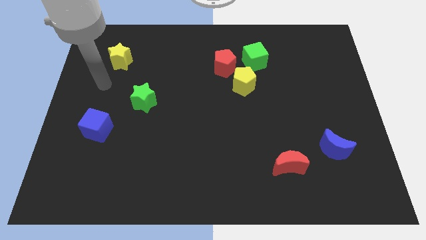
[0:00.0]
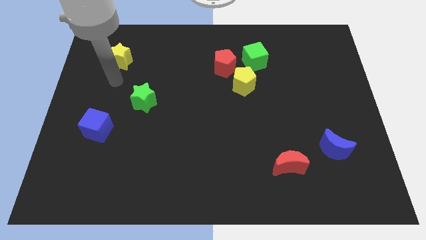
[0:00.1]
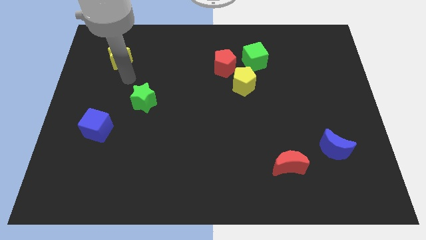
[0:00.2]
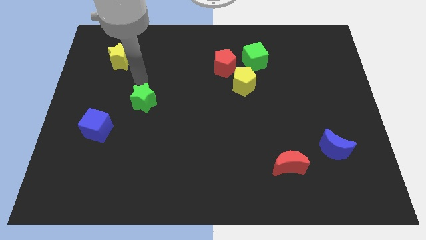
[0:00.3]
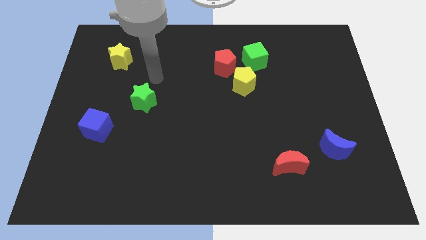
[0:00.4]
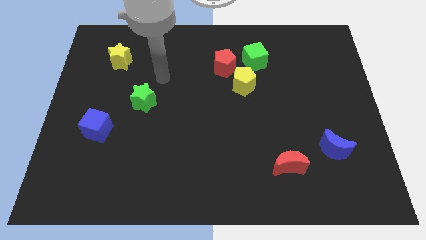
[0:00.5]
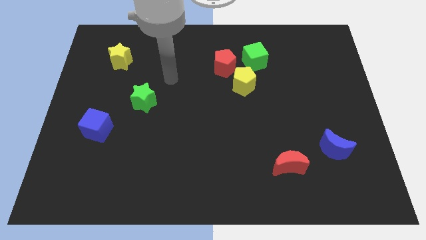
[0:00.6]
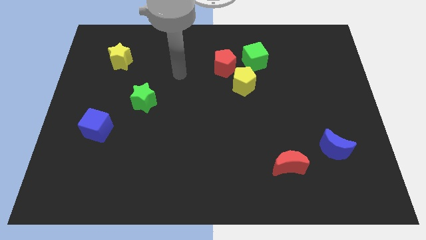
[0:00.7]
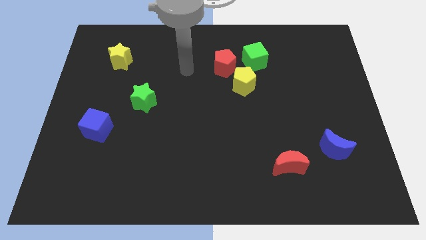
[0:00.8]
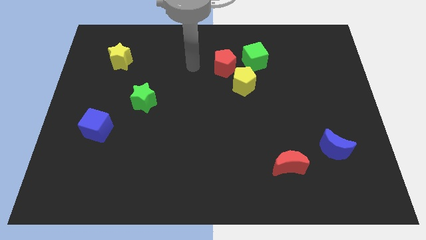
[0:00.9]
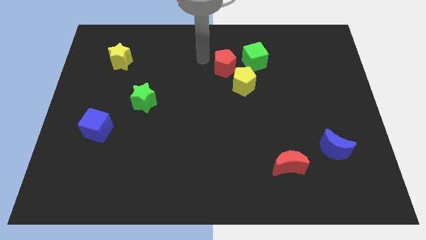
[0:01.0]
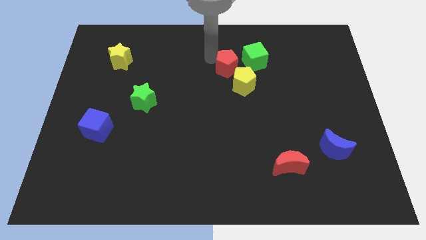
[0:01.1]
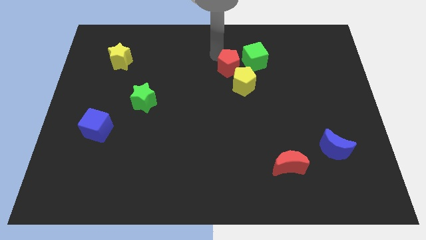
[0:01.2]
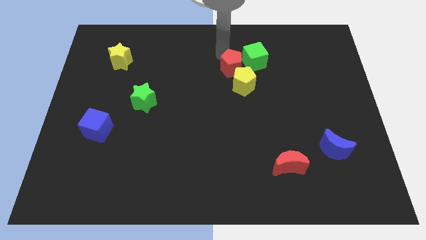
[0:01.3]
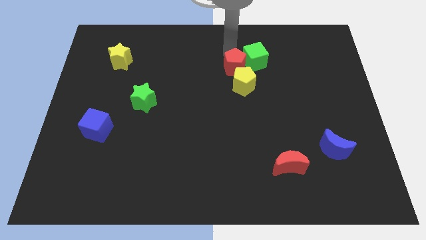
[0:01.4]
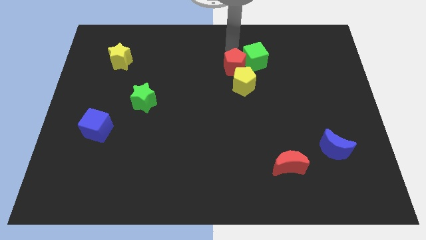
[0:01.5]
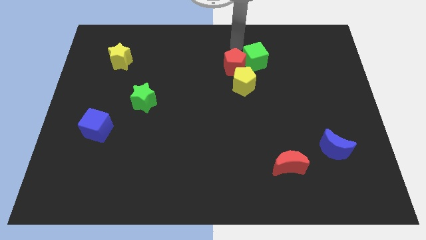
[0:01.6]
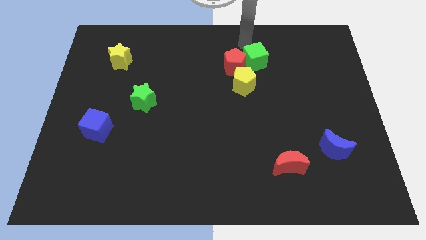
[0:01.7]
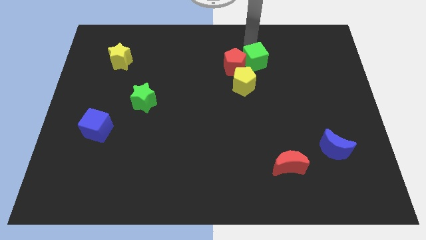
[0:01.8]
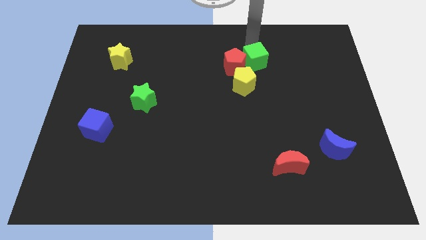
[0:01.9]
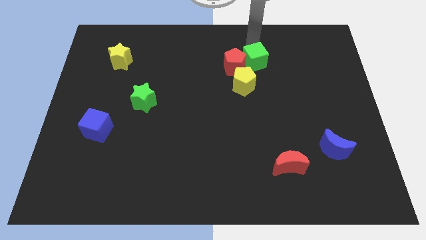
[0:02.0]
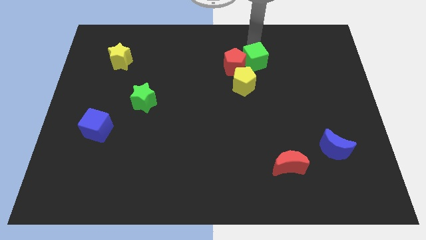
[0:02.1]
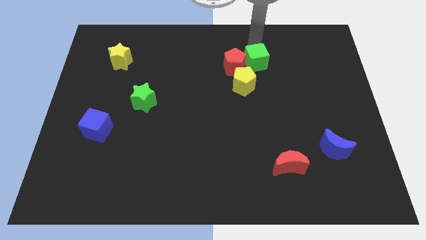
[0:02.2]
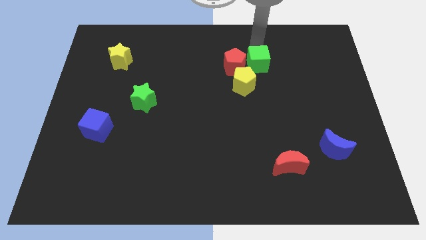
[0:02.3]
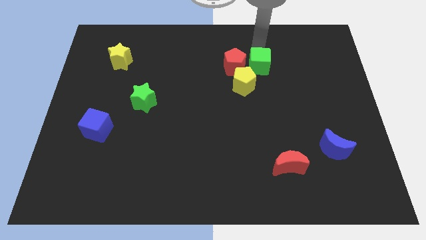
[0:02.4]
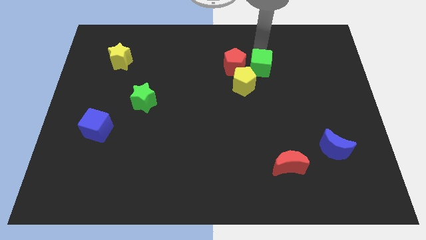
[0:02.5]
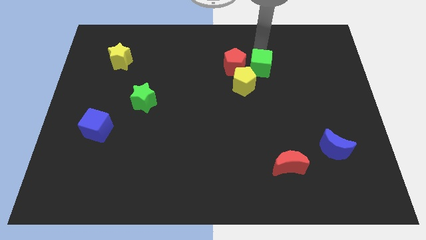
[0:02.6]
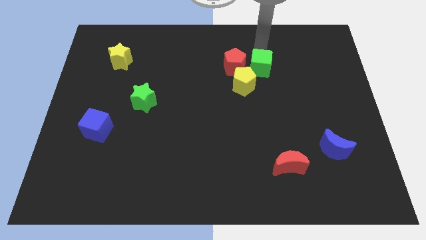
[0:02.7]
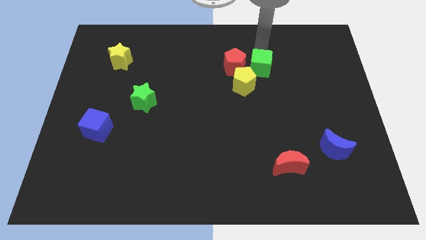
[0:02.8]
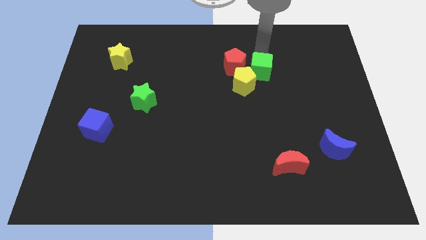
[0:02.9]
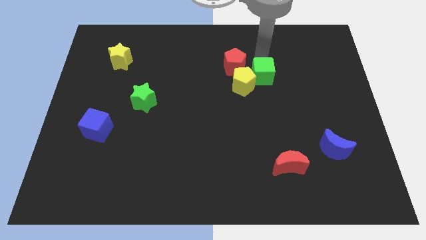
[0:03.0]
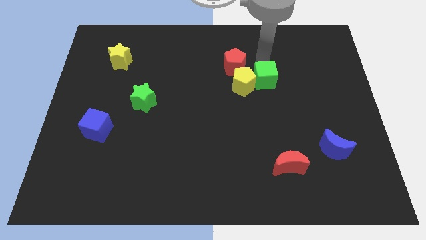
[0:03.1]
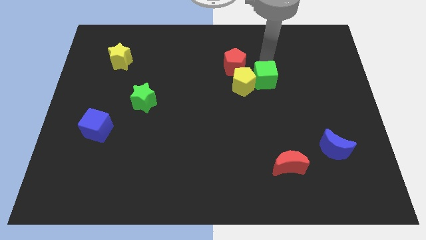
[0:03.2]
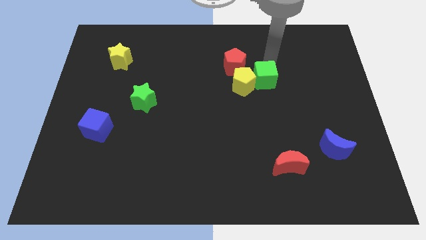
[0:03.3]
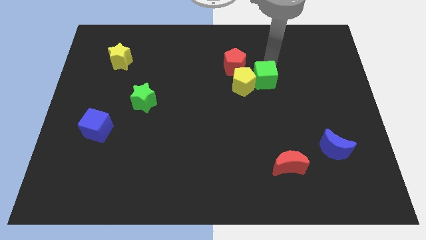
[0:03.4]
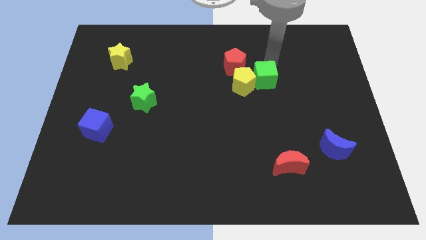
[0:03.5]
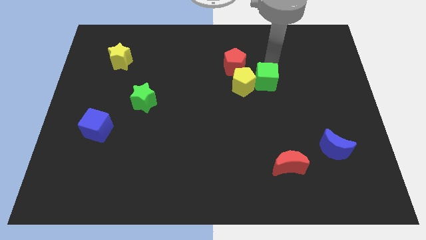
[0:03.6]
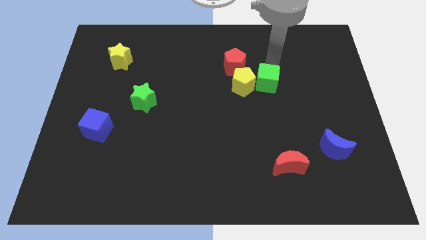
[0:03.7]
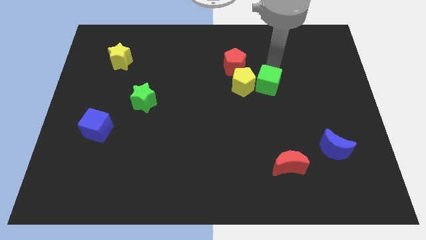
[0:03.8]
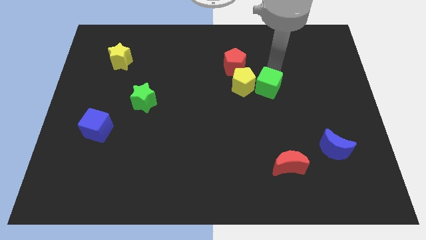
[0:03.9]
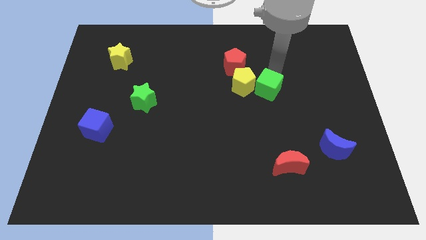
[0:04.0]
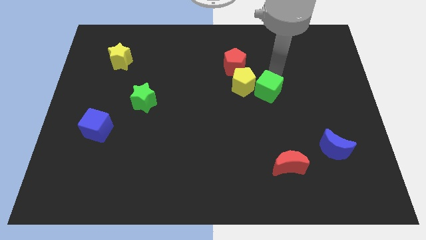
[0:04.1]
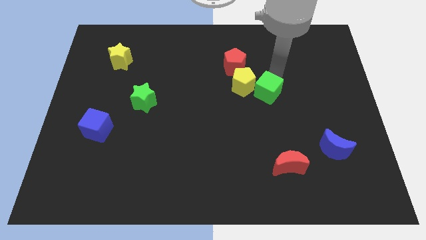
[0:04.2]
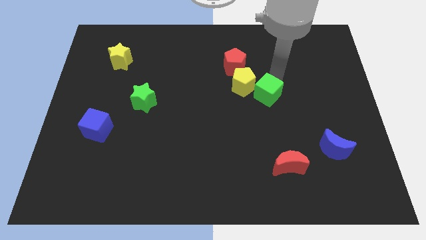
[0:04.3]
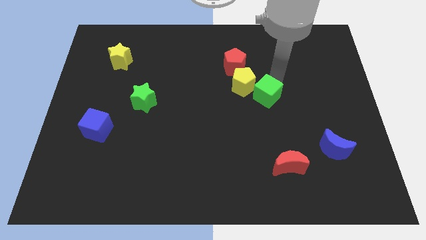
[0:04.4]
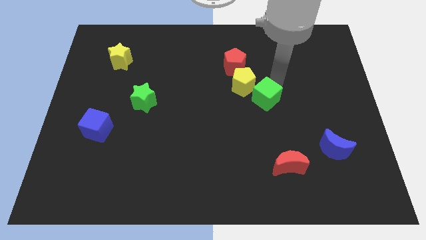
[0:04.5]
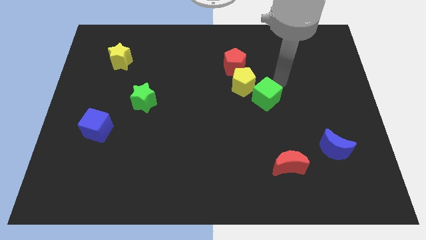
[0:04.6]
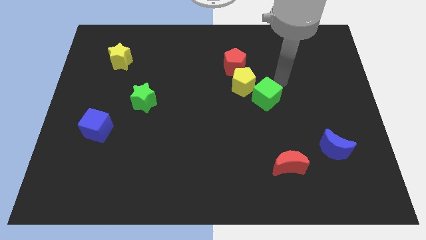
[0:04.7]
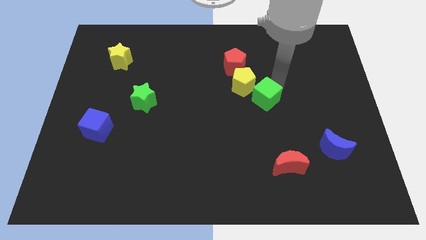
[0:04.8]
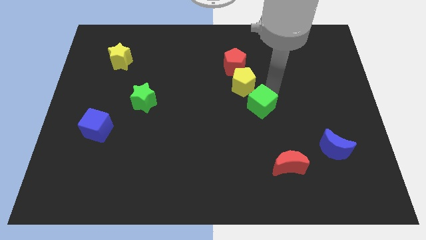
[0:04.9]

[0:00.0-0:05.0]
put the green cube to the bottom of the yellow pentagon

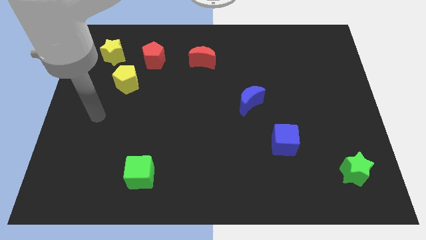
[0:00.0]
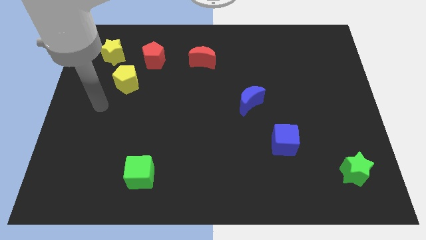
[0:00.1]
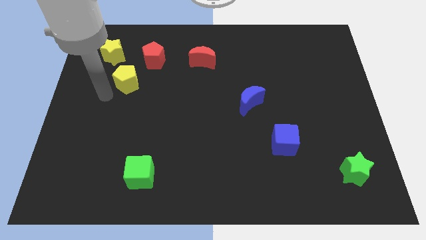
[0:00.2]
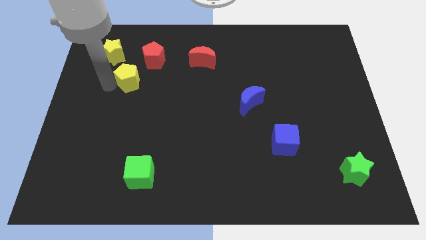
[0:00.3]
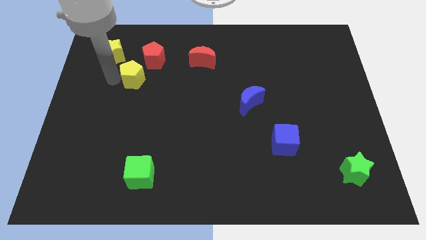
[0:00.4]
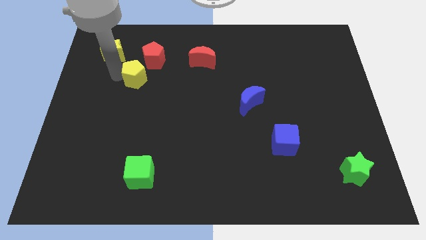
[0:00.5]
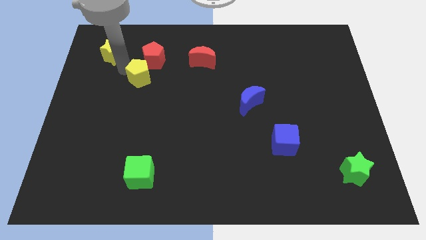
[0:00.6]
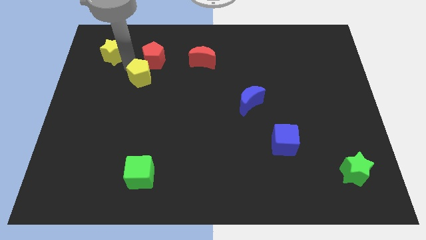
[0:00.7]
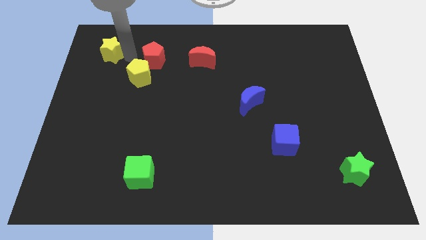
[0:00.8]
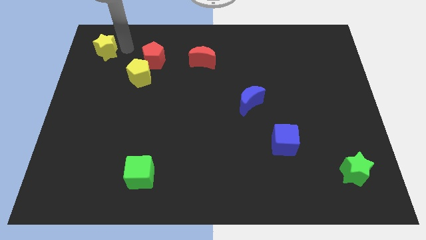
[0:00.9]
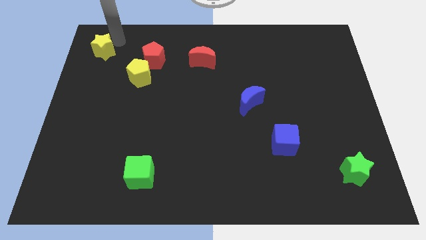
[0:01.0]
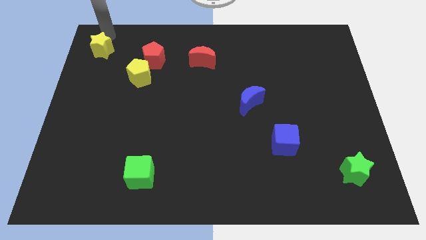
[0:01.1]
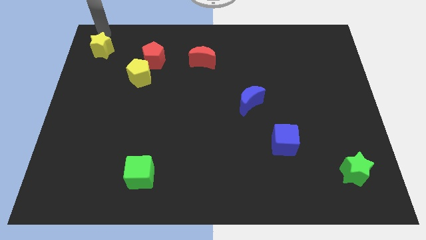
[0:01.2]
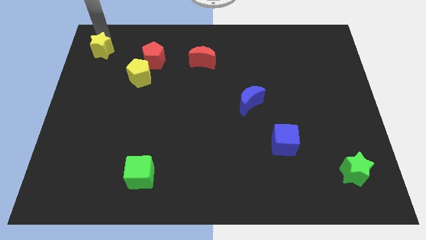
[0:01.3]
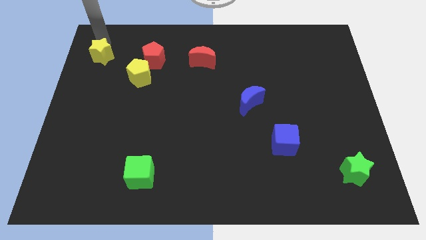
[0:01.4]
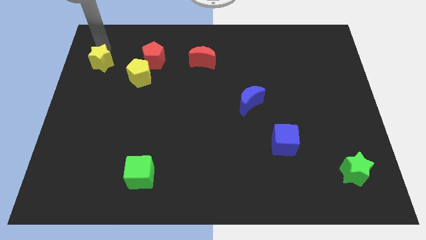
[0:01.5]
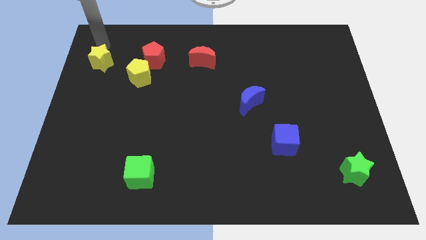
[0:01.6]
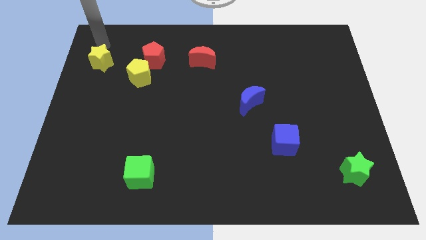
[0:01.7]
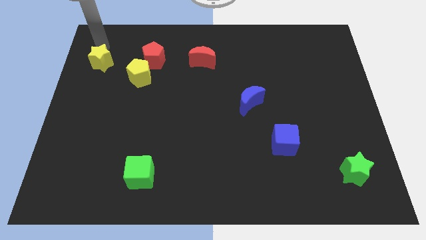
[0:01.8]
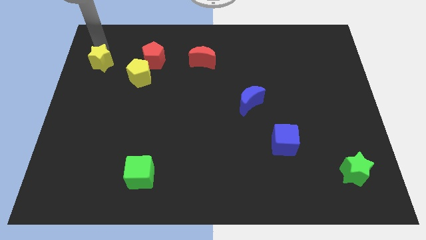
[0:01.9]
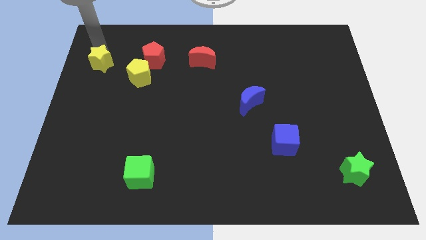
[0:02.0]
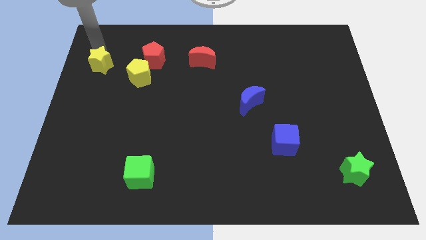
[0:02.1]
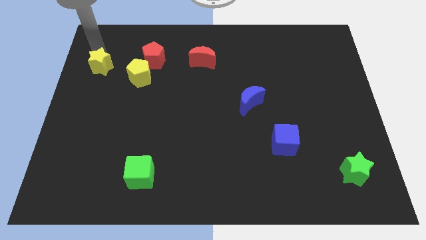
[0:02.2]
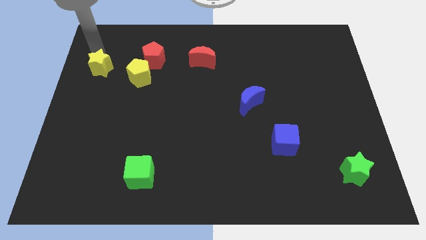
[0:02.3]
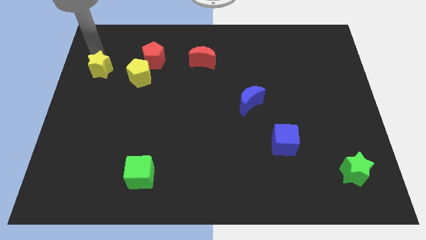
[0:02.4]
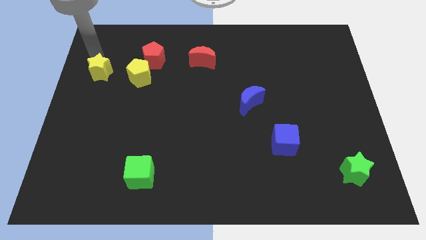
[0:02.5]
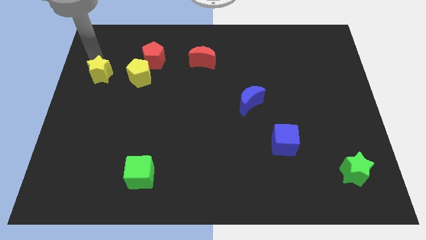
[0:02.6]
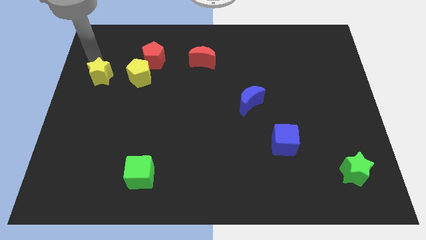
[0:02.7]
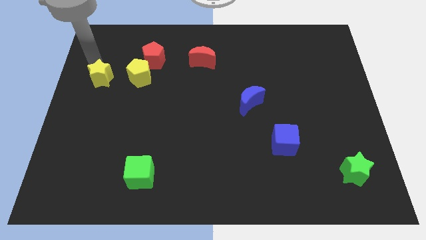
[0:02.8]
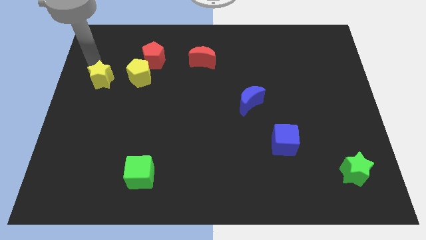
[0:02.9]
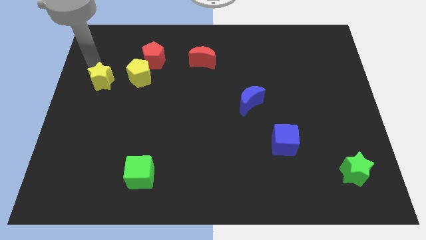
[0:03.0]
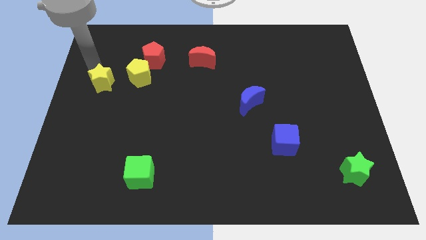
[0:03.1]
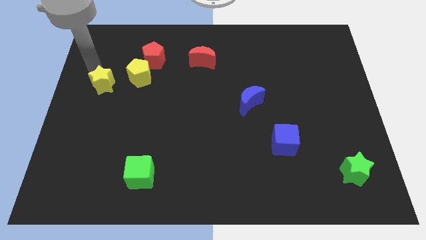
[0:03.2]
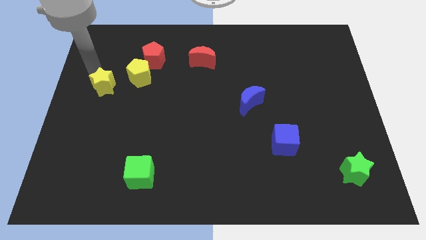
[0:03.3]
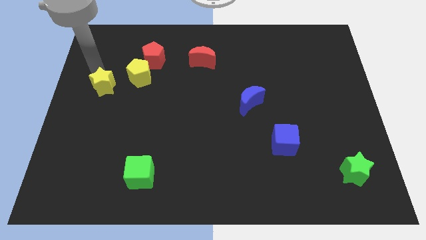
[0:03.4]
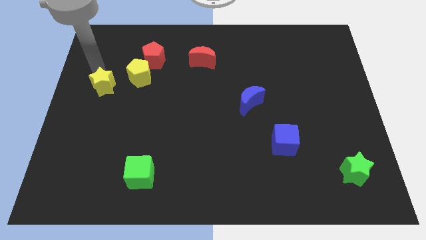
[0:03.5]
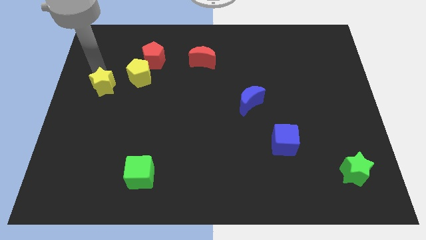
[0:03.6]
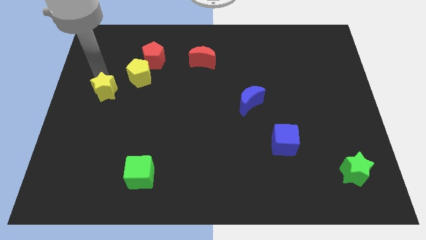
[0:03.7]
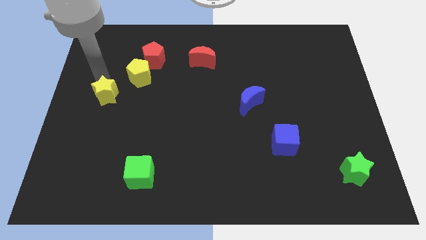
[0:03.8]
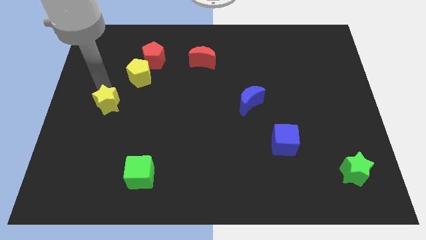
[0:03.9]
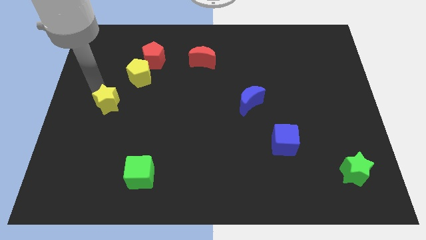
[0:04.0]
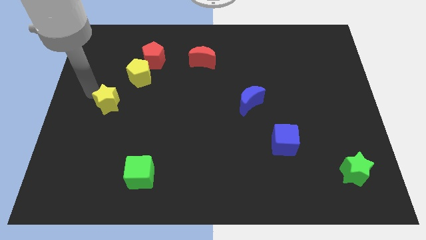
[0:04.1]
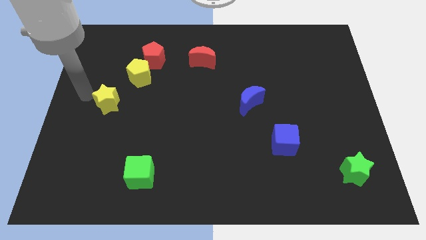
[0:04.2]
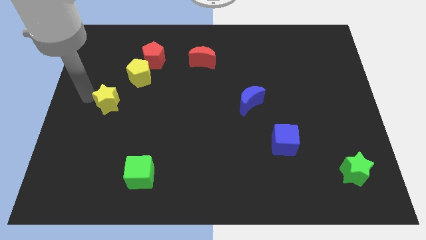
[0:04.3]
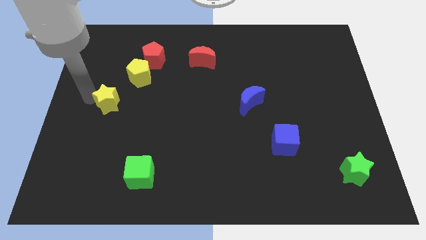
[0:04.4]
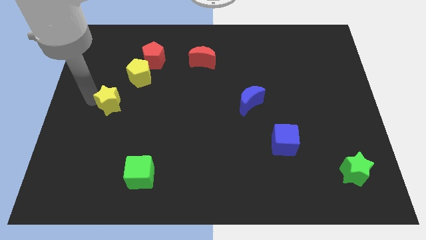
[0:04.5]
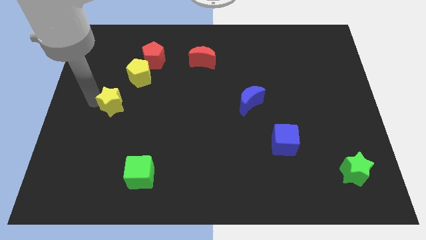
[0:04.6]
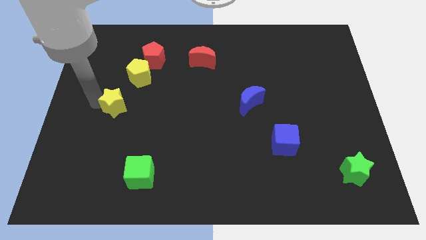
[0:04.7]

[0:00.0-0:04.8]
put the yellow star to the bottom side of the yellow pentagon
